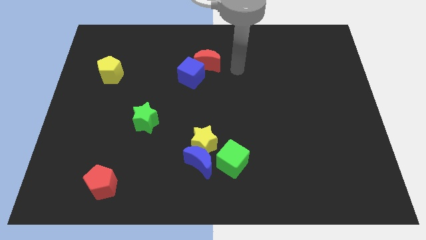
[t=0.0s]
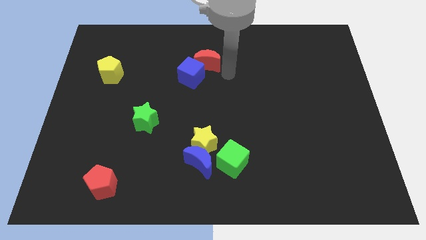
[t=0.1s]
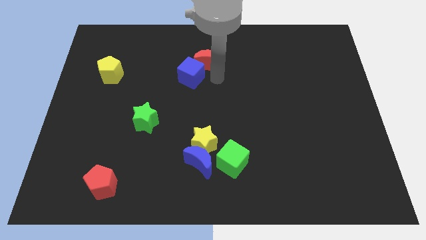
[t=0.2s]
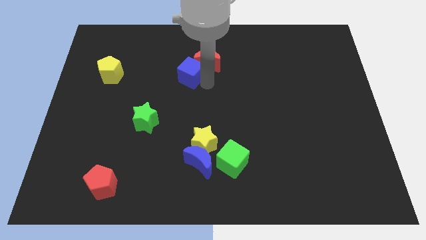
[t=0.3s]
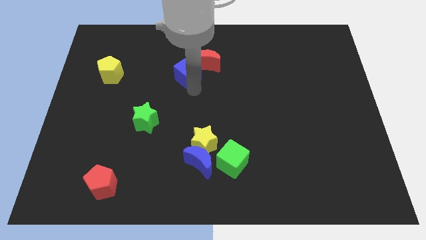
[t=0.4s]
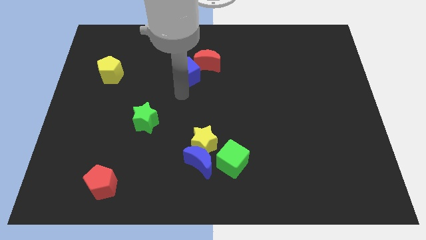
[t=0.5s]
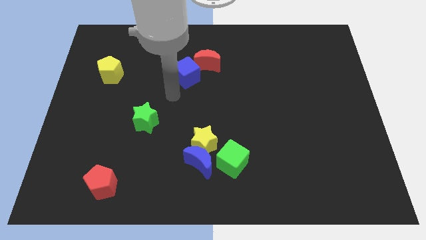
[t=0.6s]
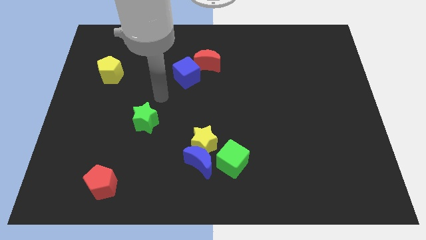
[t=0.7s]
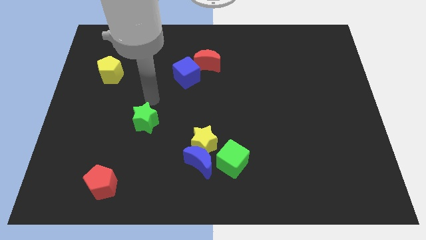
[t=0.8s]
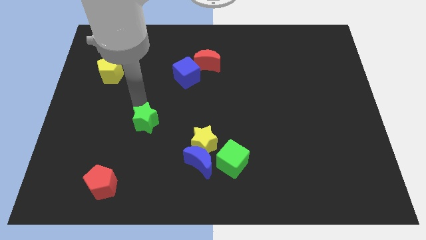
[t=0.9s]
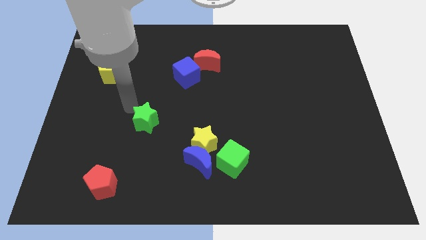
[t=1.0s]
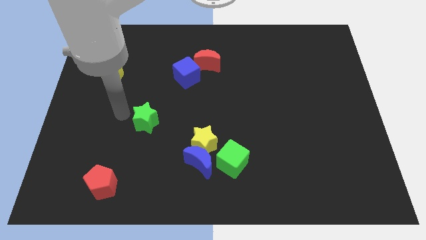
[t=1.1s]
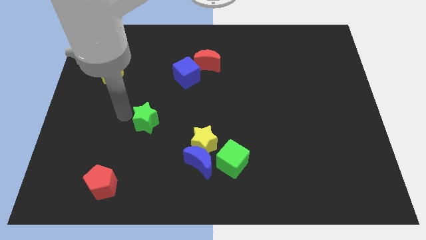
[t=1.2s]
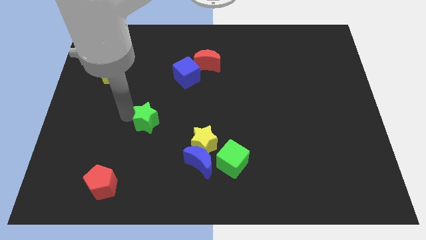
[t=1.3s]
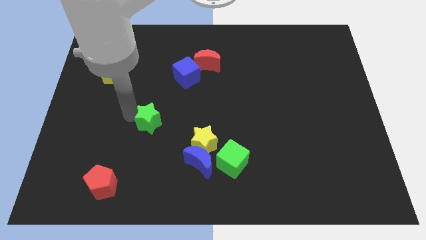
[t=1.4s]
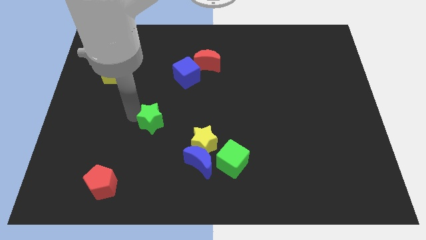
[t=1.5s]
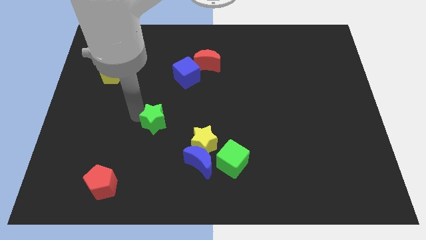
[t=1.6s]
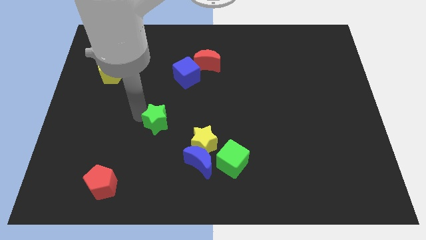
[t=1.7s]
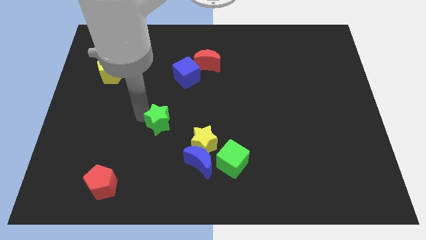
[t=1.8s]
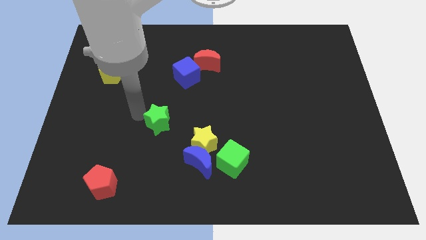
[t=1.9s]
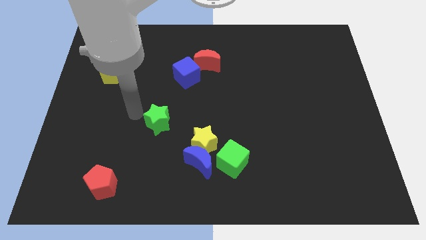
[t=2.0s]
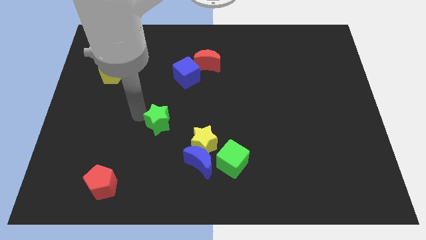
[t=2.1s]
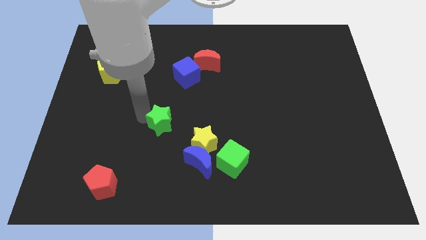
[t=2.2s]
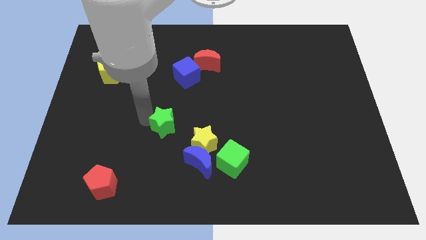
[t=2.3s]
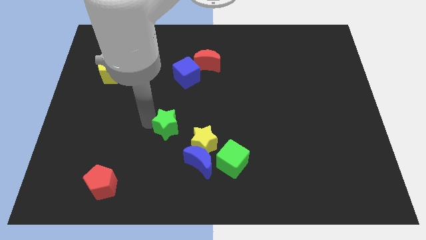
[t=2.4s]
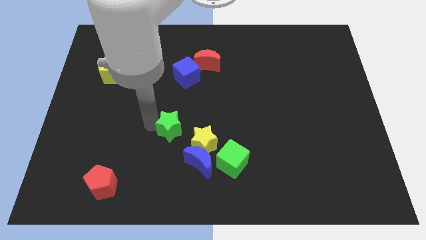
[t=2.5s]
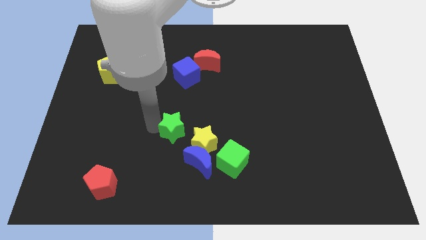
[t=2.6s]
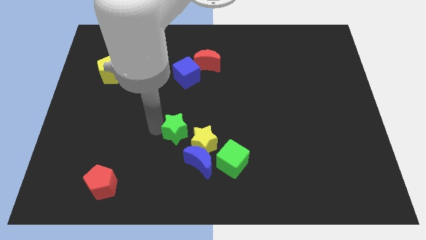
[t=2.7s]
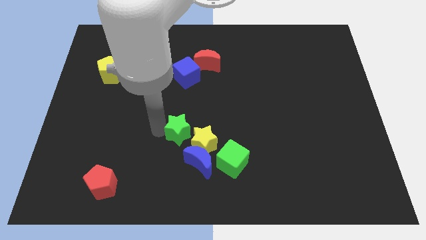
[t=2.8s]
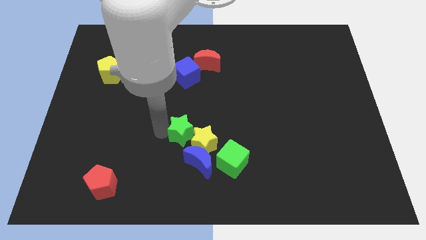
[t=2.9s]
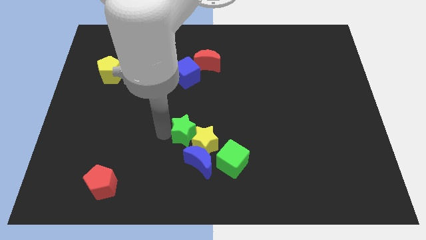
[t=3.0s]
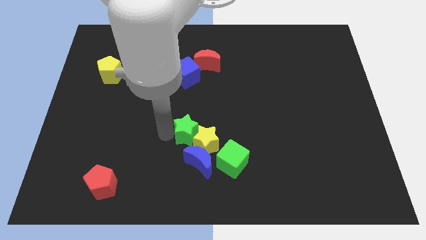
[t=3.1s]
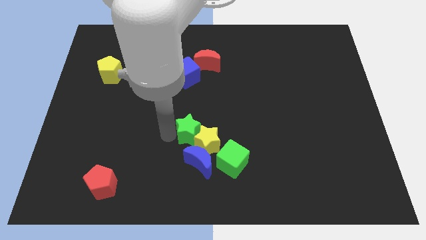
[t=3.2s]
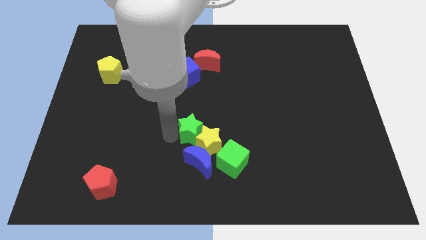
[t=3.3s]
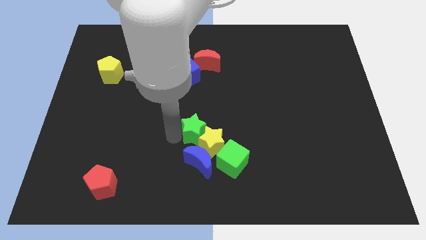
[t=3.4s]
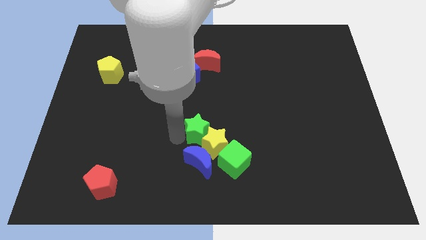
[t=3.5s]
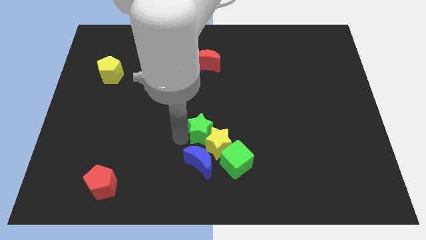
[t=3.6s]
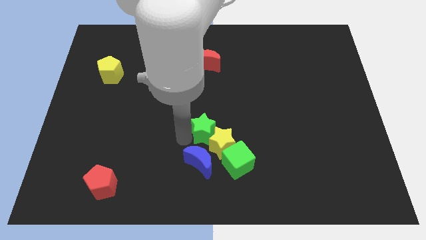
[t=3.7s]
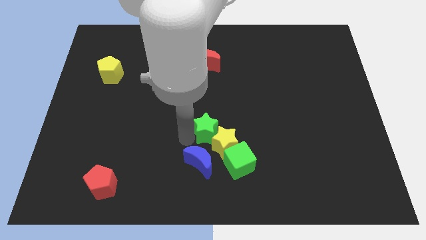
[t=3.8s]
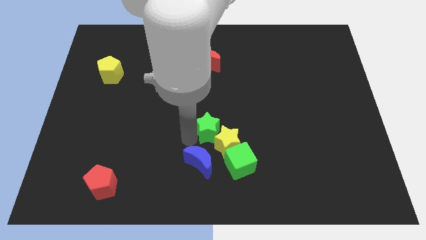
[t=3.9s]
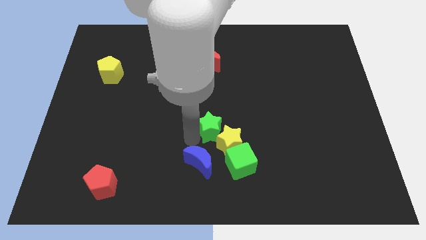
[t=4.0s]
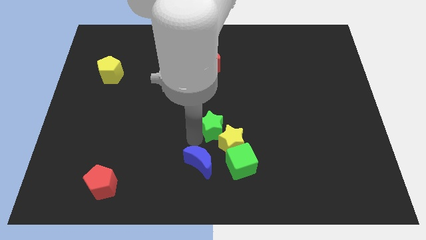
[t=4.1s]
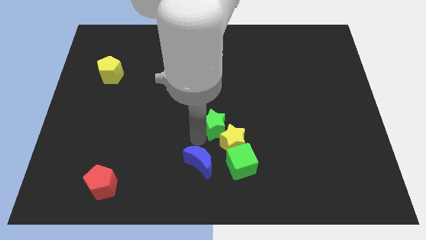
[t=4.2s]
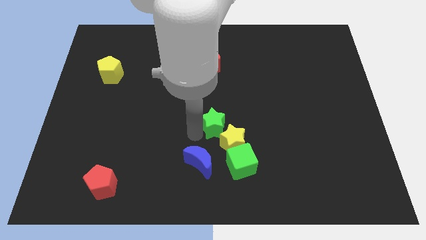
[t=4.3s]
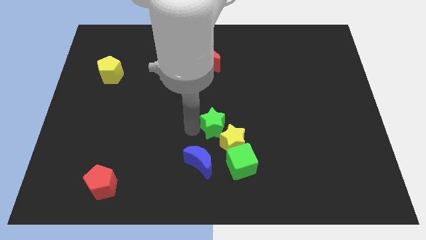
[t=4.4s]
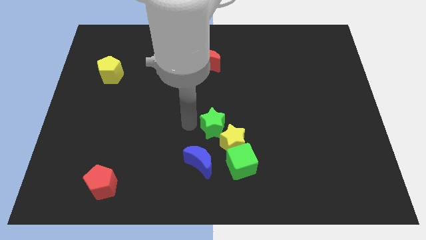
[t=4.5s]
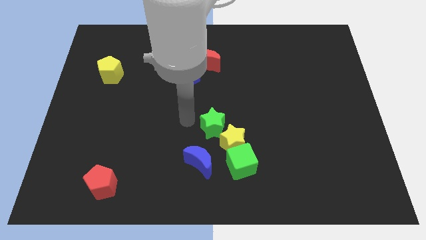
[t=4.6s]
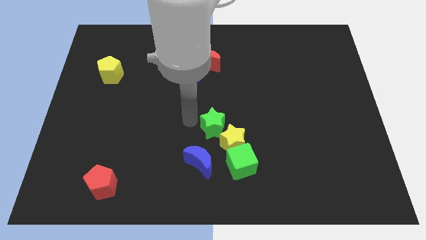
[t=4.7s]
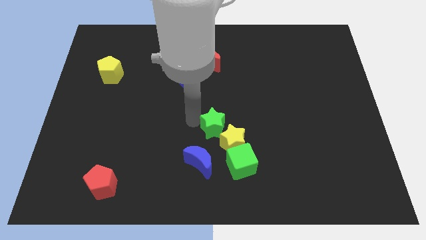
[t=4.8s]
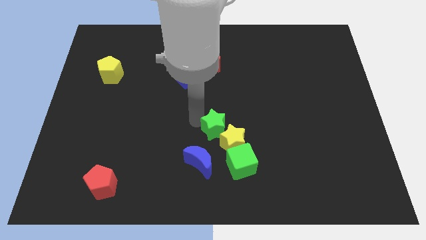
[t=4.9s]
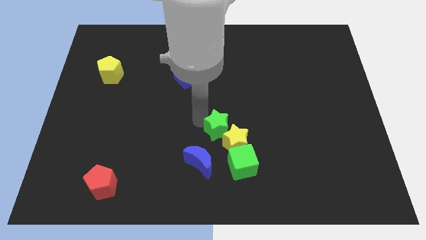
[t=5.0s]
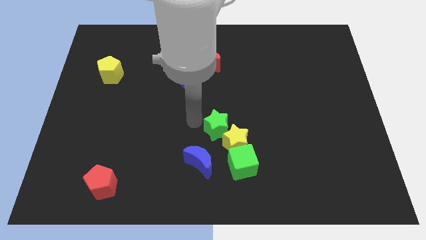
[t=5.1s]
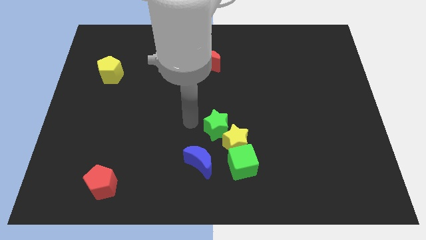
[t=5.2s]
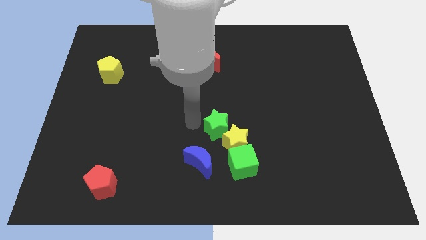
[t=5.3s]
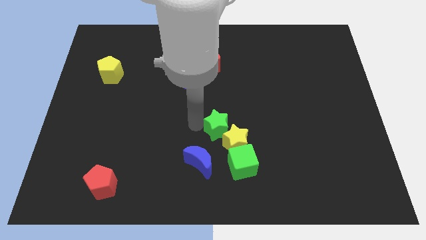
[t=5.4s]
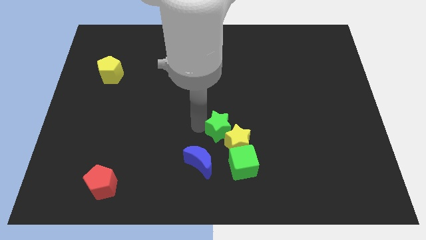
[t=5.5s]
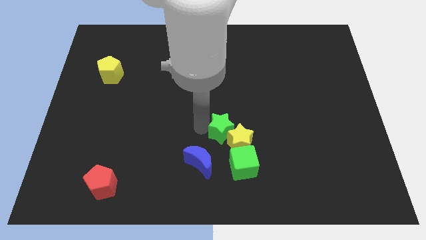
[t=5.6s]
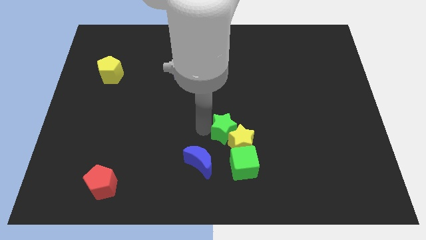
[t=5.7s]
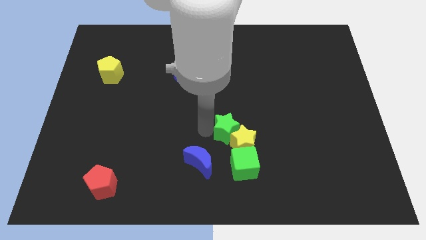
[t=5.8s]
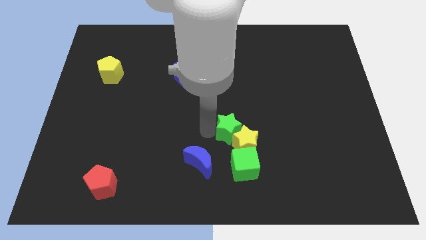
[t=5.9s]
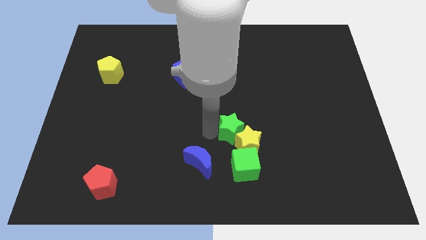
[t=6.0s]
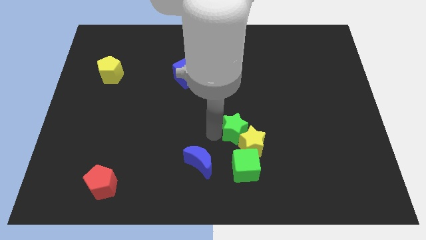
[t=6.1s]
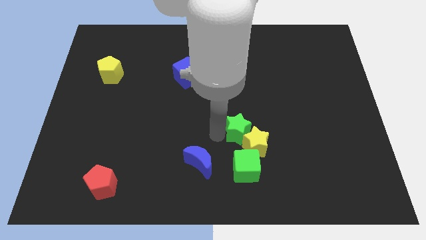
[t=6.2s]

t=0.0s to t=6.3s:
move the green star to the right

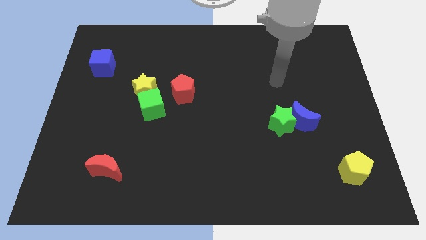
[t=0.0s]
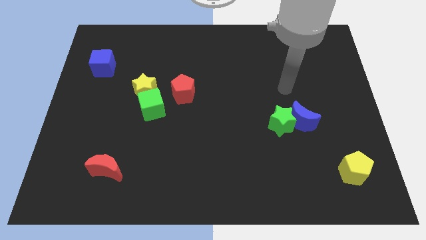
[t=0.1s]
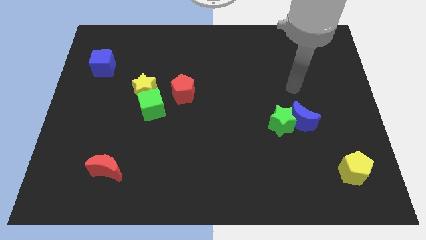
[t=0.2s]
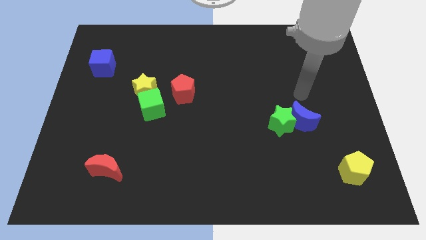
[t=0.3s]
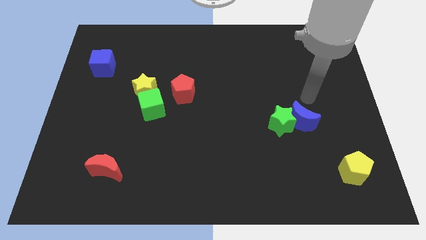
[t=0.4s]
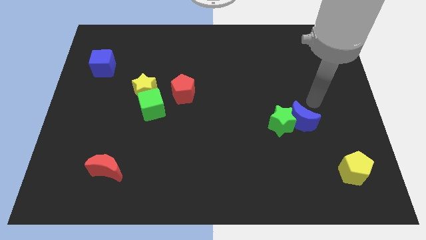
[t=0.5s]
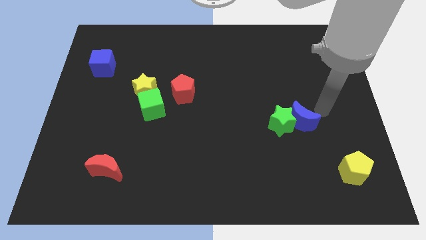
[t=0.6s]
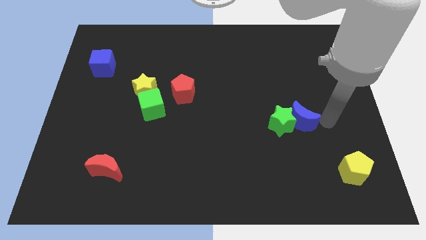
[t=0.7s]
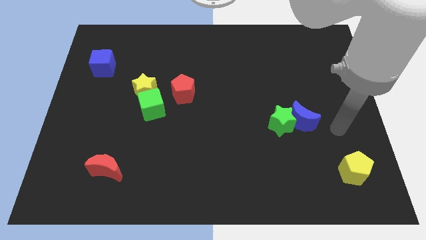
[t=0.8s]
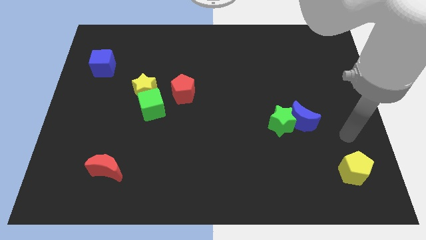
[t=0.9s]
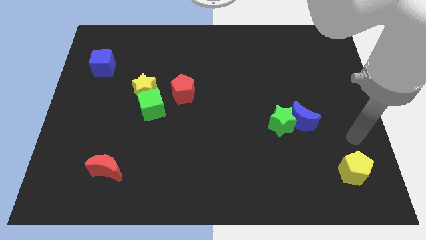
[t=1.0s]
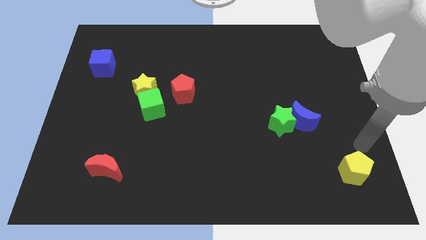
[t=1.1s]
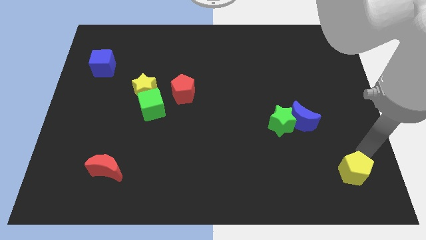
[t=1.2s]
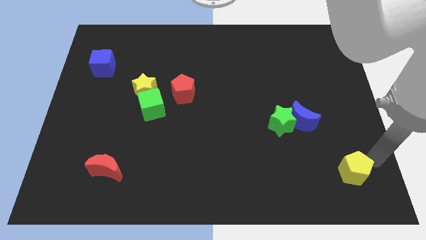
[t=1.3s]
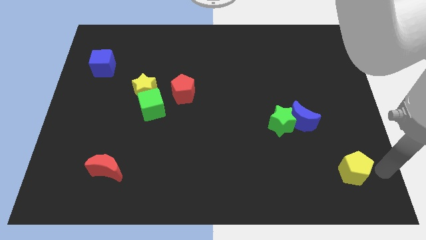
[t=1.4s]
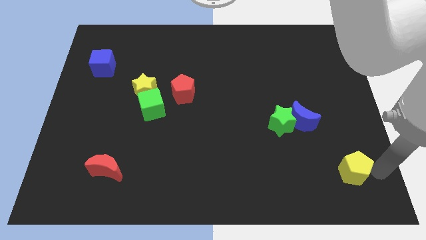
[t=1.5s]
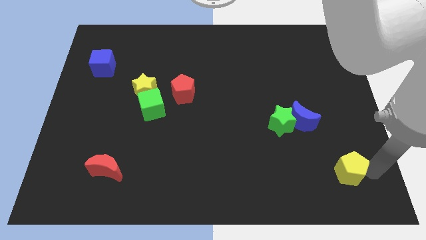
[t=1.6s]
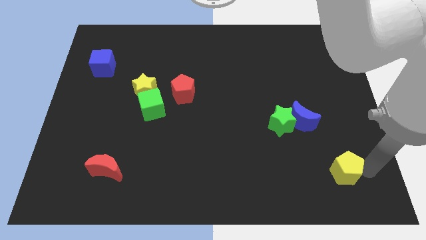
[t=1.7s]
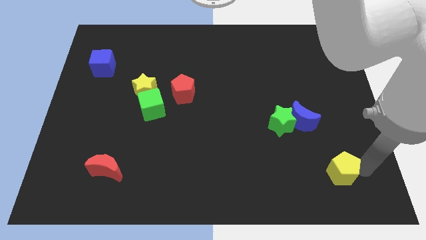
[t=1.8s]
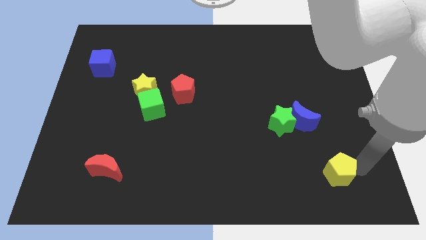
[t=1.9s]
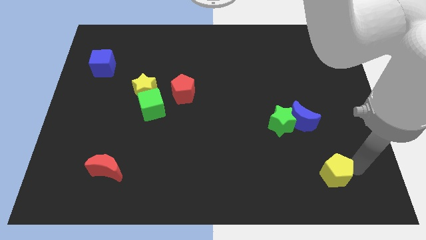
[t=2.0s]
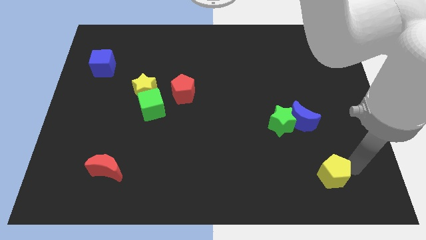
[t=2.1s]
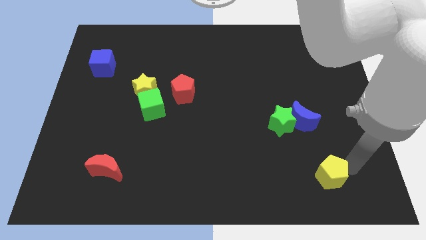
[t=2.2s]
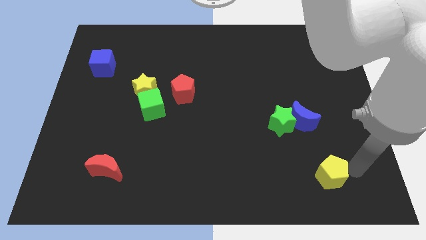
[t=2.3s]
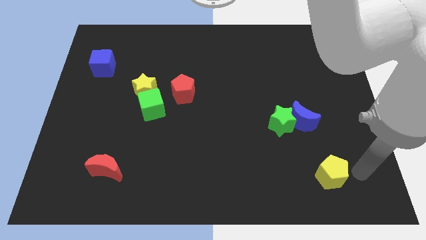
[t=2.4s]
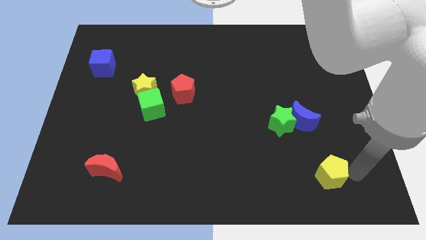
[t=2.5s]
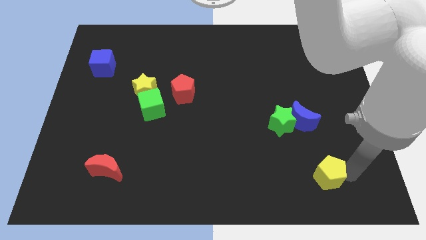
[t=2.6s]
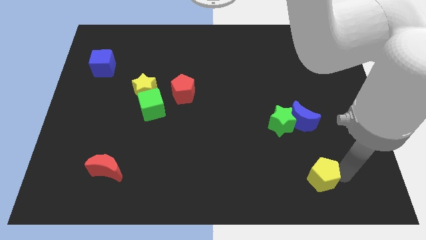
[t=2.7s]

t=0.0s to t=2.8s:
slightly move the yellow pentagon left
